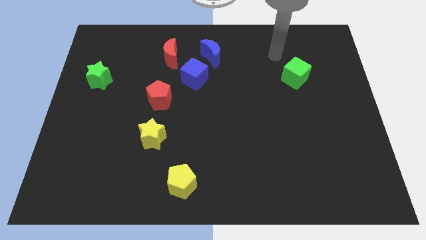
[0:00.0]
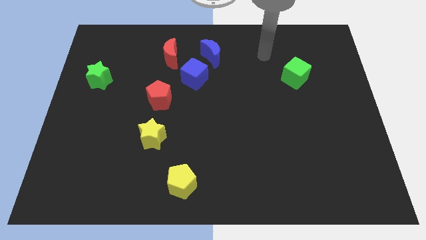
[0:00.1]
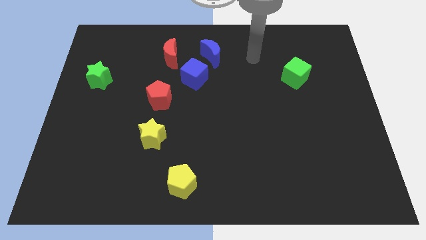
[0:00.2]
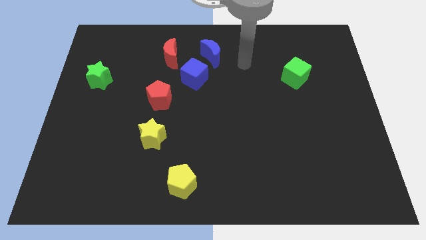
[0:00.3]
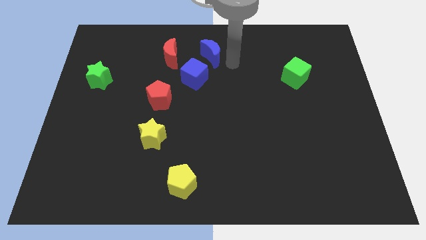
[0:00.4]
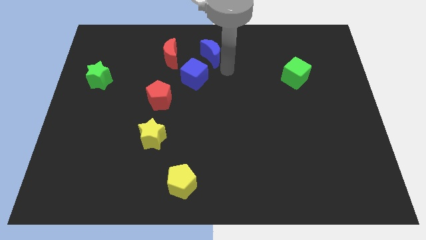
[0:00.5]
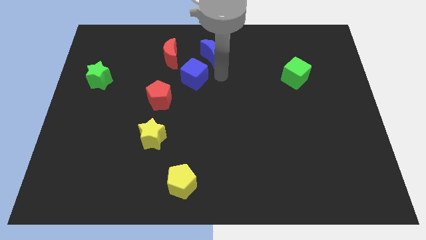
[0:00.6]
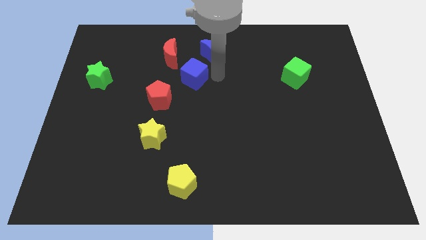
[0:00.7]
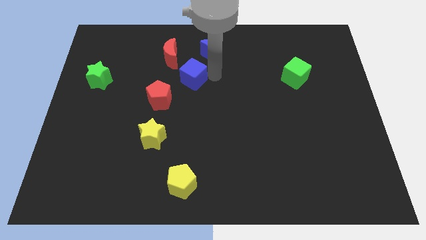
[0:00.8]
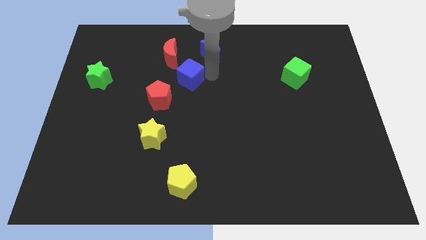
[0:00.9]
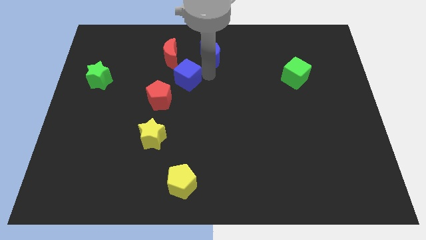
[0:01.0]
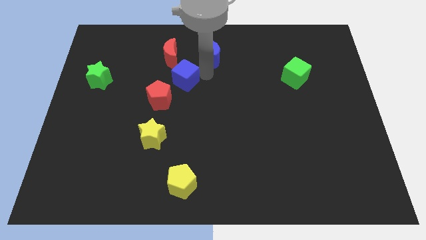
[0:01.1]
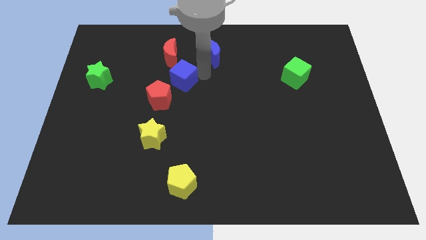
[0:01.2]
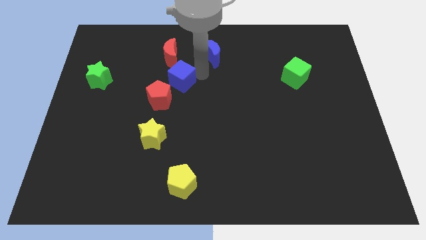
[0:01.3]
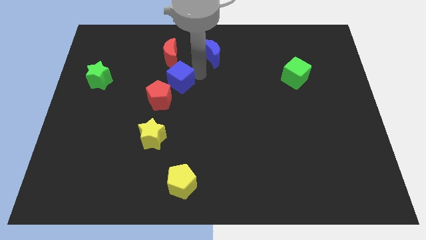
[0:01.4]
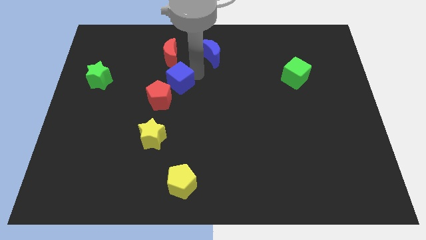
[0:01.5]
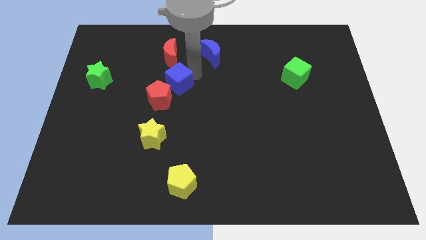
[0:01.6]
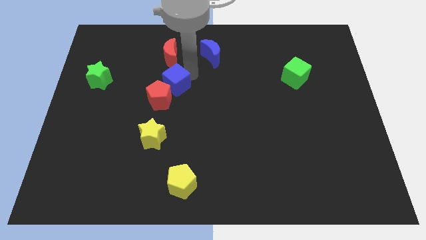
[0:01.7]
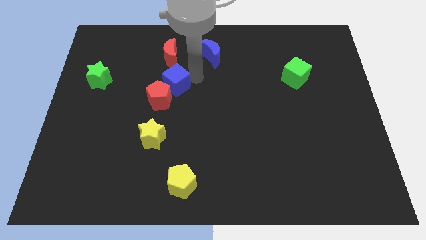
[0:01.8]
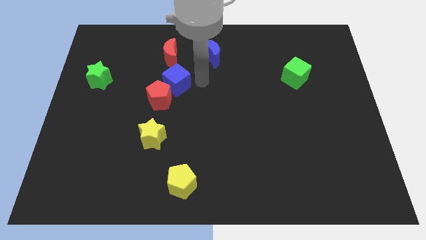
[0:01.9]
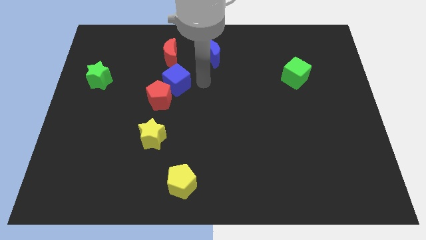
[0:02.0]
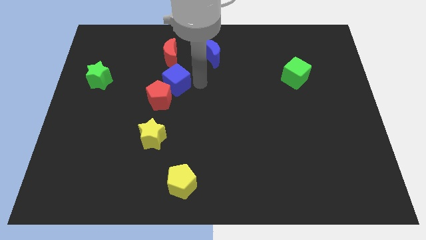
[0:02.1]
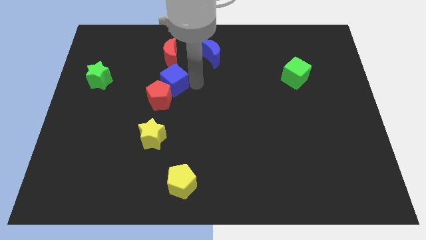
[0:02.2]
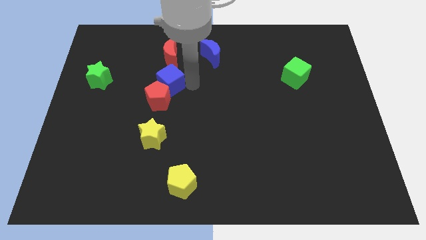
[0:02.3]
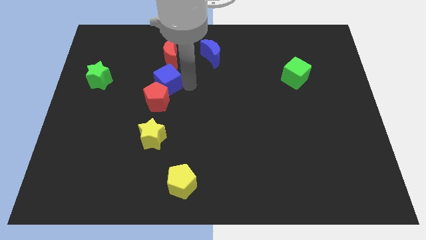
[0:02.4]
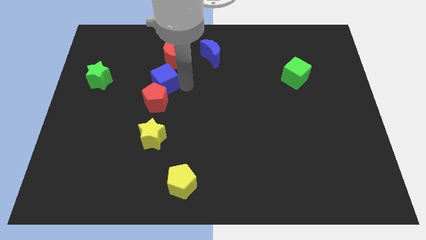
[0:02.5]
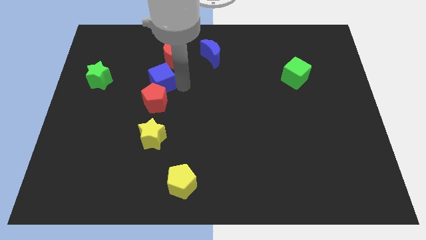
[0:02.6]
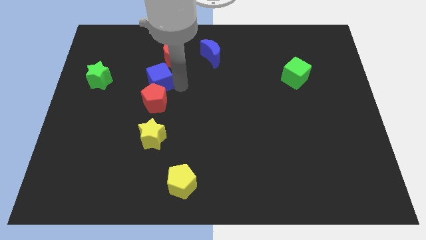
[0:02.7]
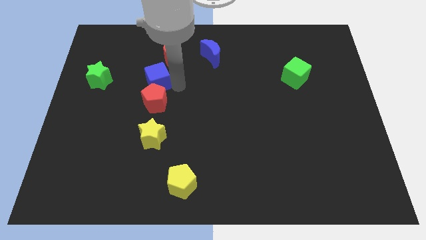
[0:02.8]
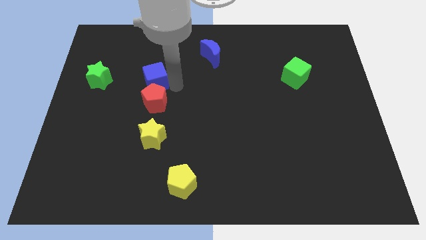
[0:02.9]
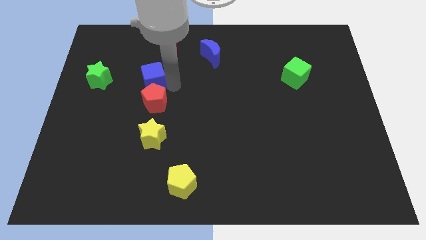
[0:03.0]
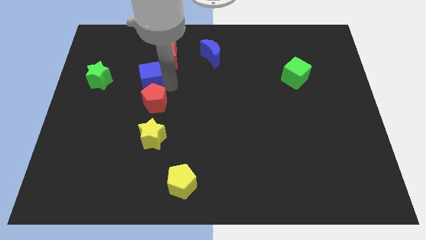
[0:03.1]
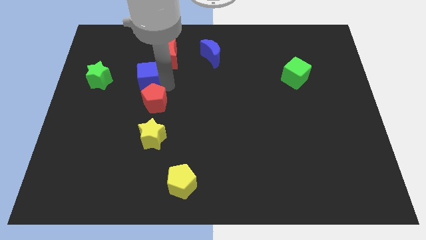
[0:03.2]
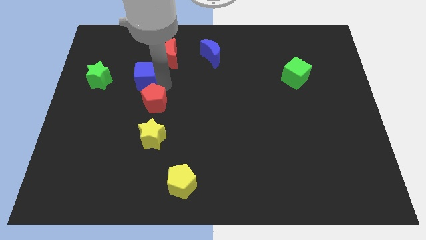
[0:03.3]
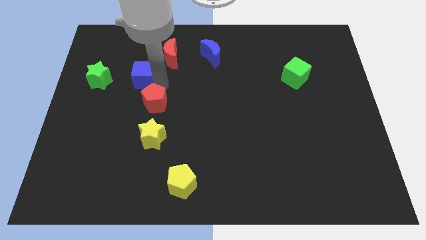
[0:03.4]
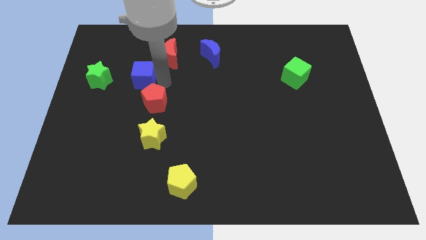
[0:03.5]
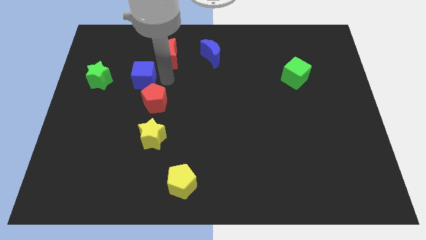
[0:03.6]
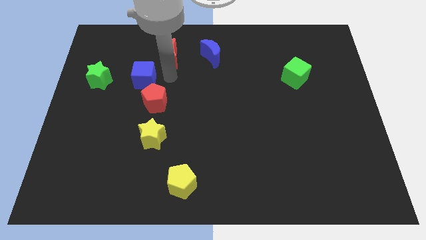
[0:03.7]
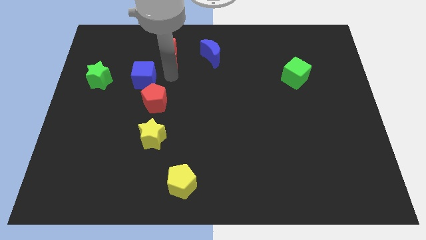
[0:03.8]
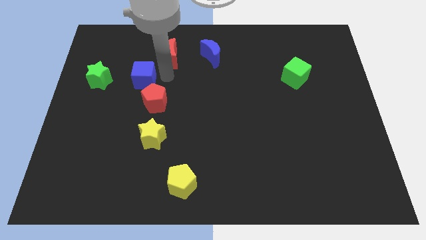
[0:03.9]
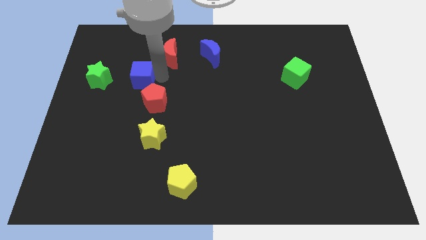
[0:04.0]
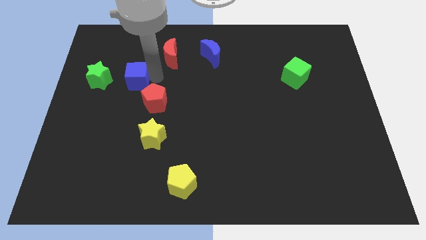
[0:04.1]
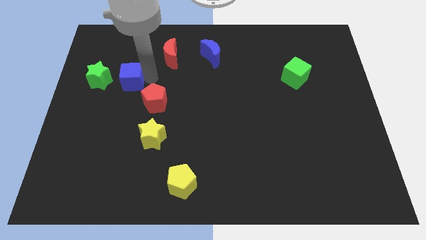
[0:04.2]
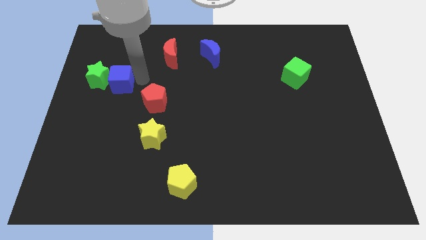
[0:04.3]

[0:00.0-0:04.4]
move the blue cube to the green star

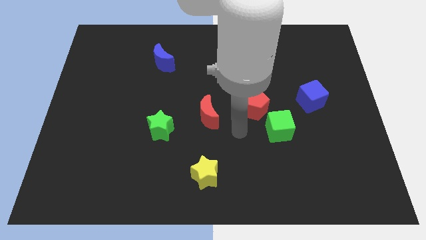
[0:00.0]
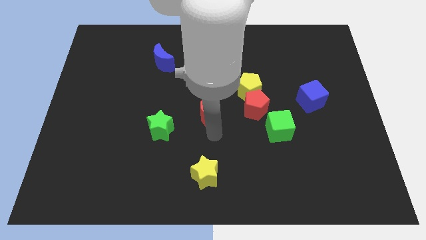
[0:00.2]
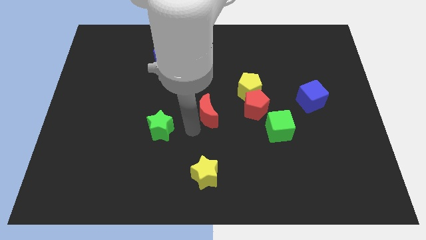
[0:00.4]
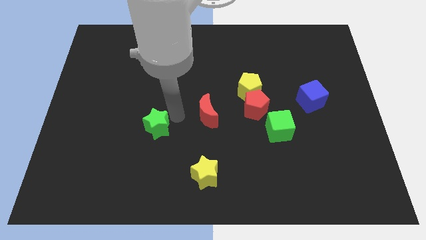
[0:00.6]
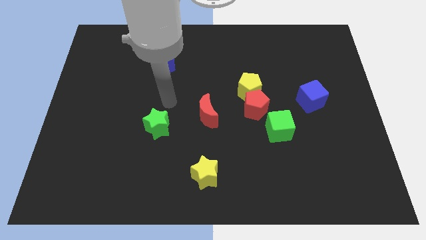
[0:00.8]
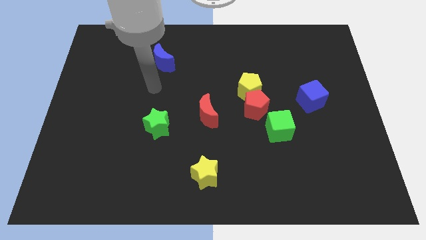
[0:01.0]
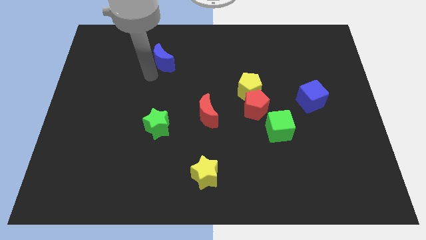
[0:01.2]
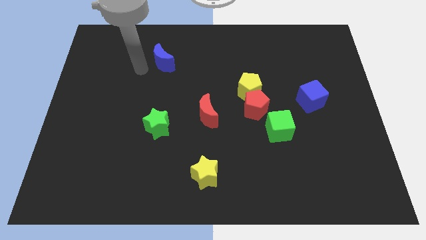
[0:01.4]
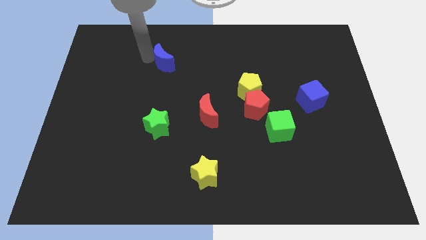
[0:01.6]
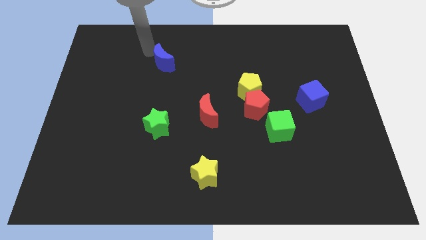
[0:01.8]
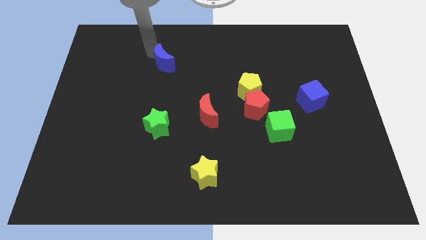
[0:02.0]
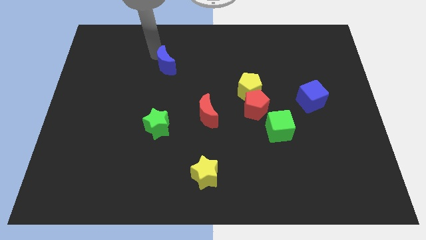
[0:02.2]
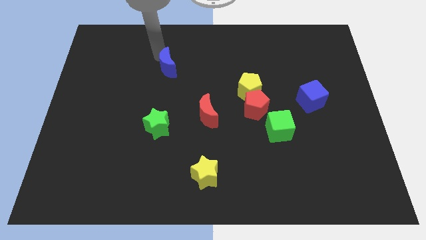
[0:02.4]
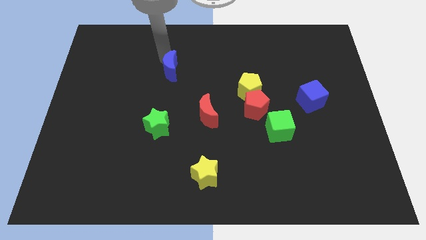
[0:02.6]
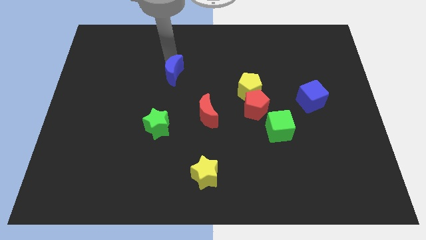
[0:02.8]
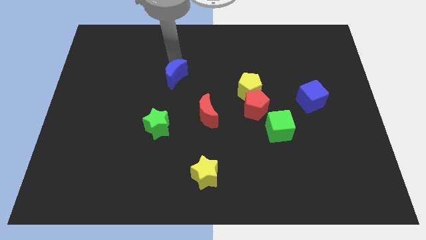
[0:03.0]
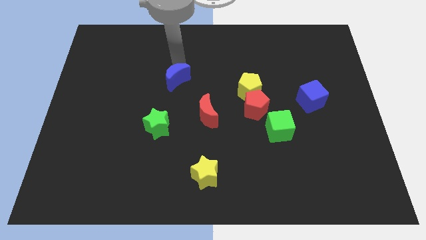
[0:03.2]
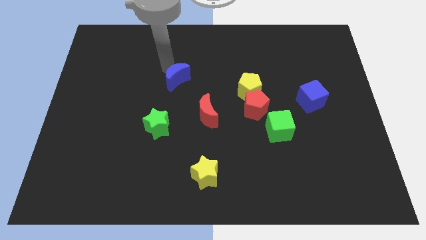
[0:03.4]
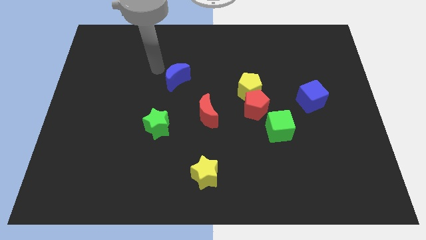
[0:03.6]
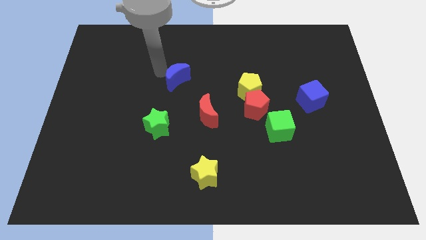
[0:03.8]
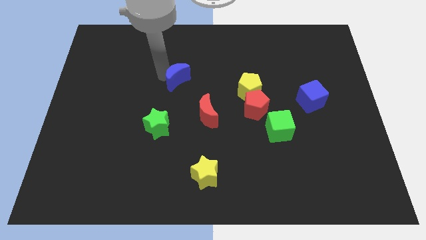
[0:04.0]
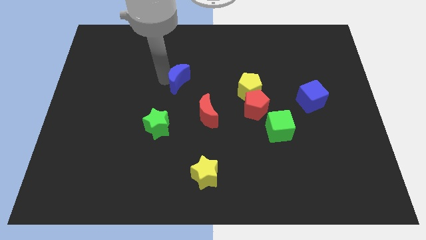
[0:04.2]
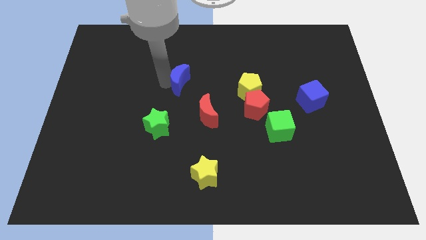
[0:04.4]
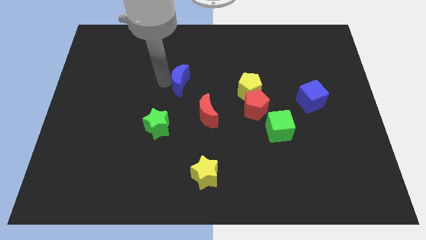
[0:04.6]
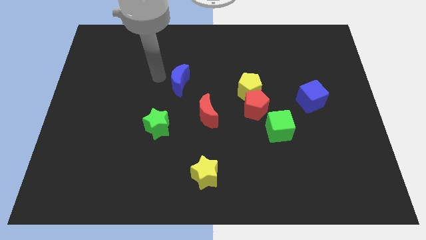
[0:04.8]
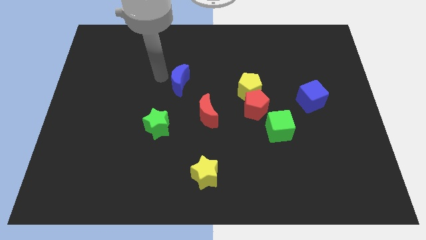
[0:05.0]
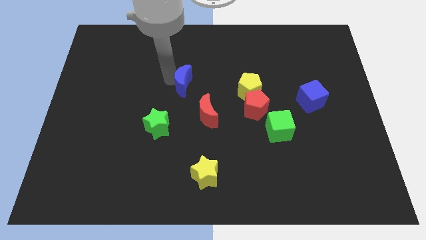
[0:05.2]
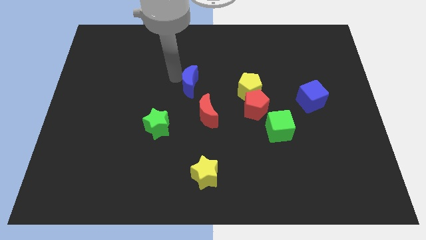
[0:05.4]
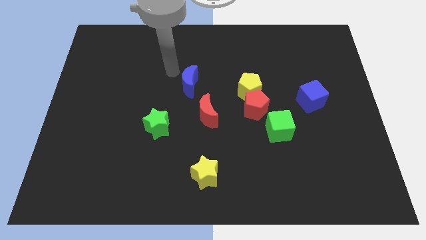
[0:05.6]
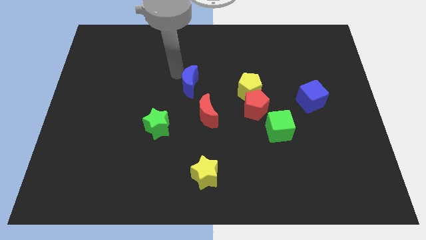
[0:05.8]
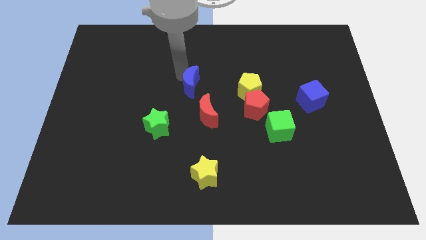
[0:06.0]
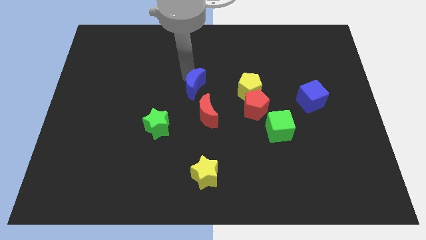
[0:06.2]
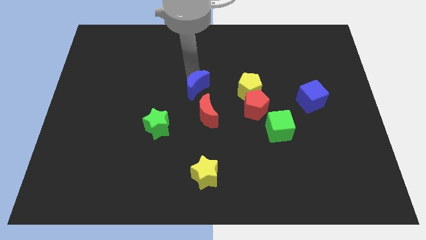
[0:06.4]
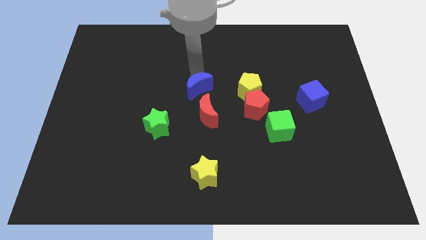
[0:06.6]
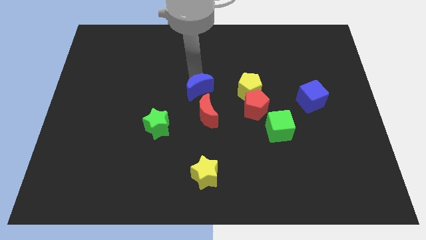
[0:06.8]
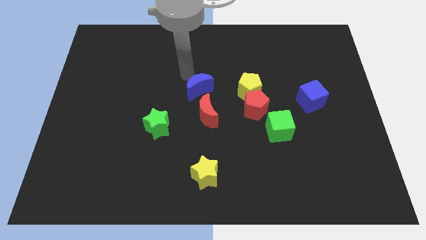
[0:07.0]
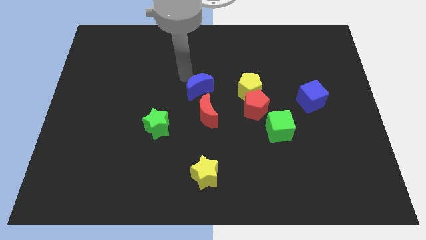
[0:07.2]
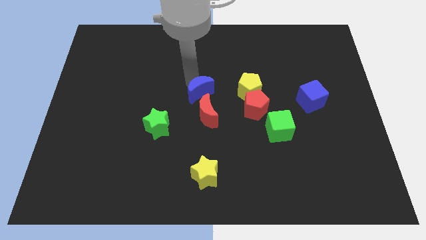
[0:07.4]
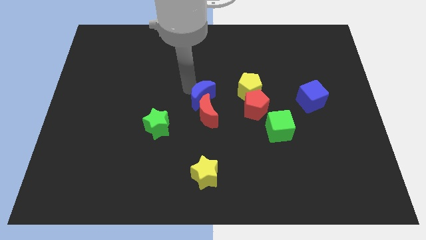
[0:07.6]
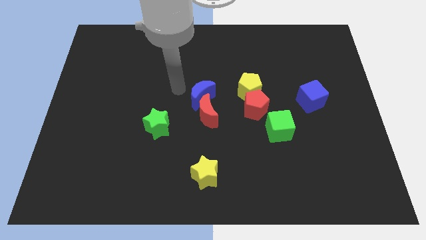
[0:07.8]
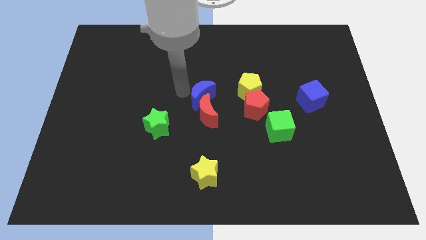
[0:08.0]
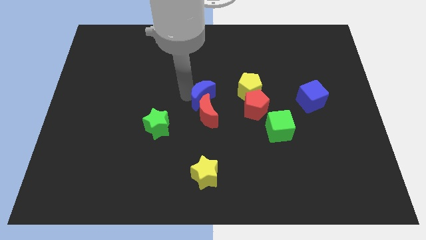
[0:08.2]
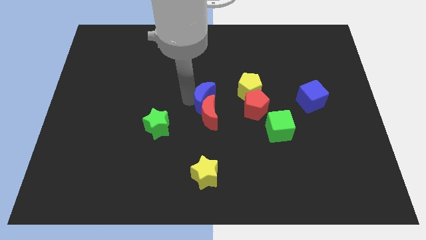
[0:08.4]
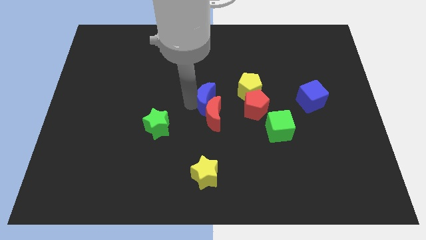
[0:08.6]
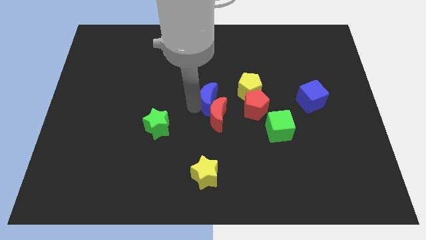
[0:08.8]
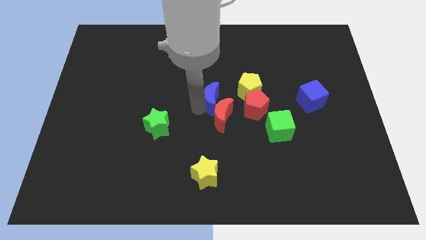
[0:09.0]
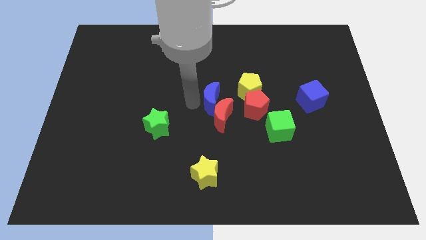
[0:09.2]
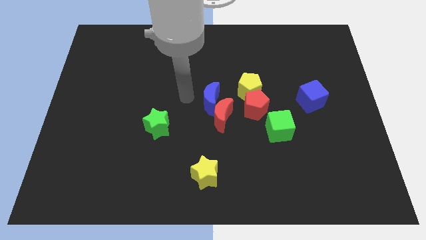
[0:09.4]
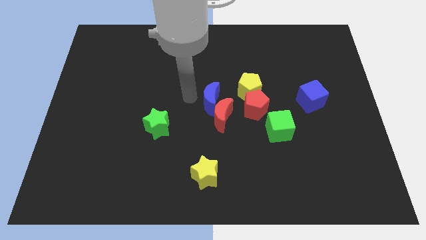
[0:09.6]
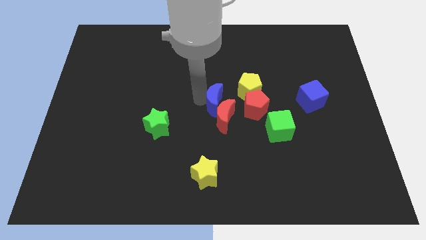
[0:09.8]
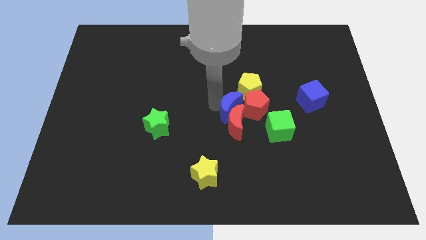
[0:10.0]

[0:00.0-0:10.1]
put the blue moon to the red pentagon
